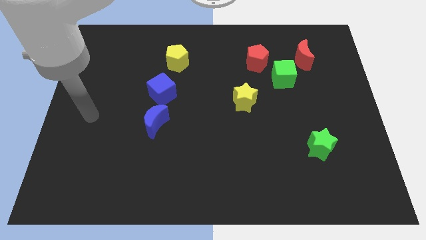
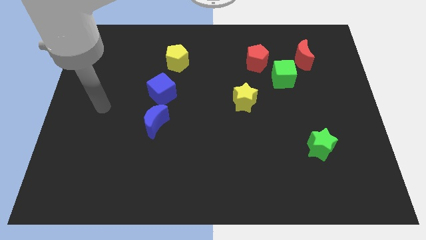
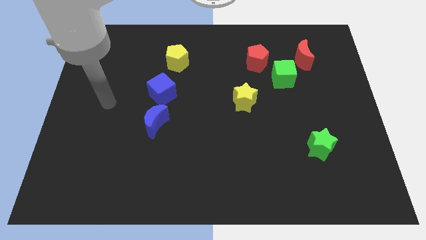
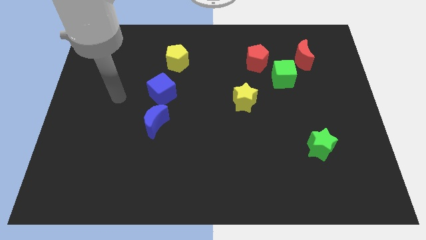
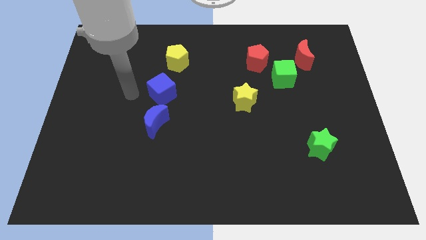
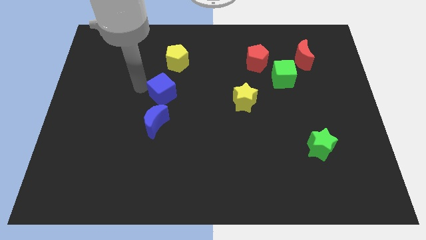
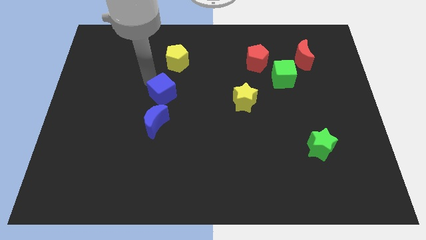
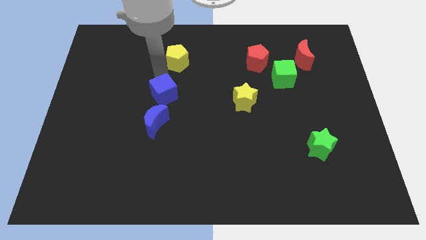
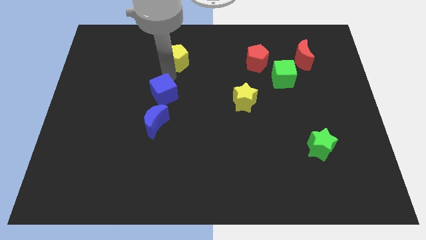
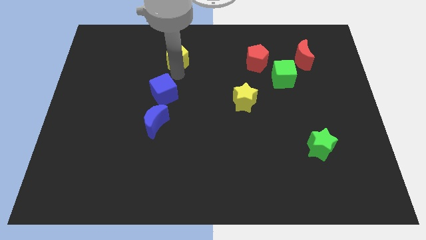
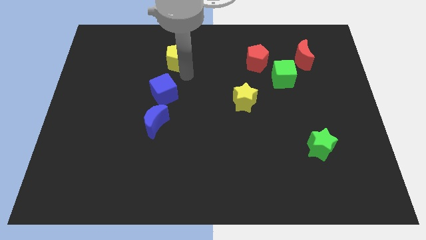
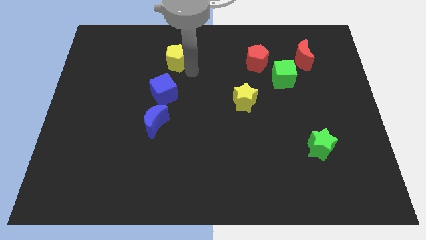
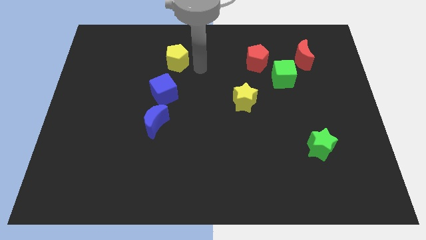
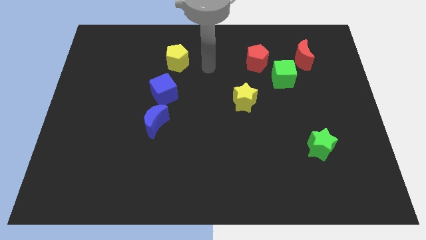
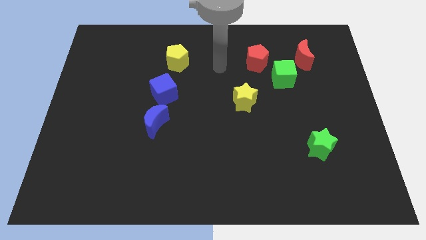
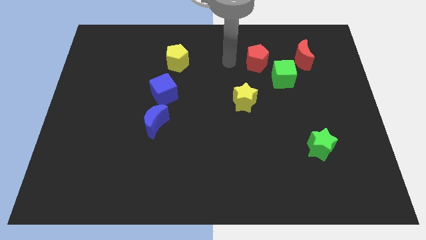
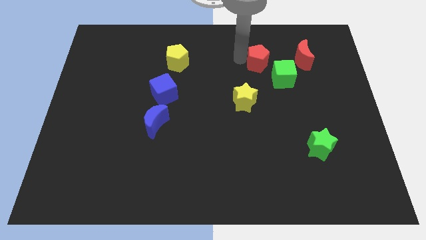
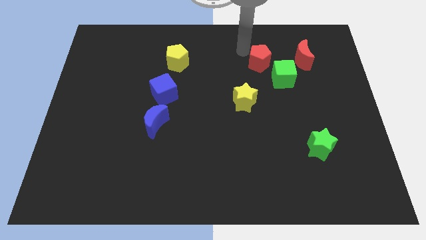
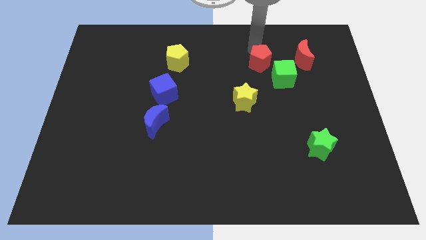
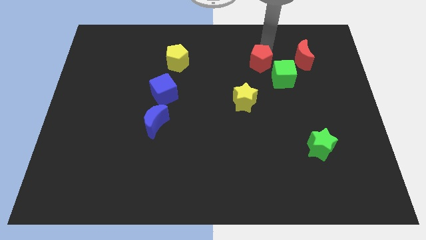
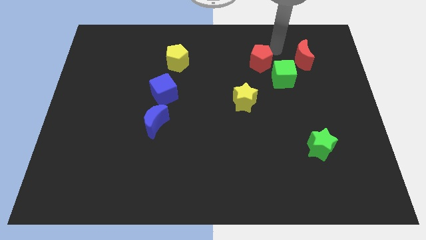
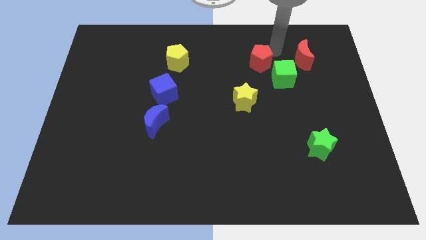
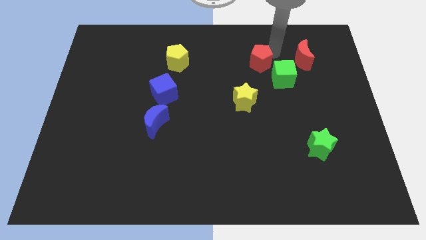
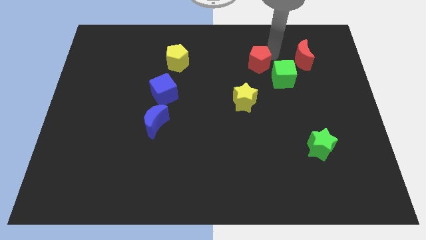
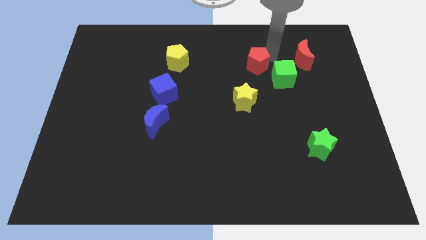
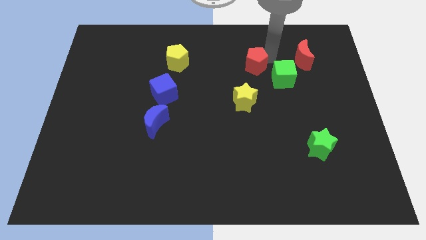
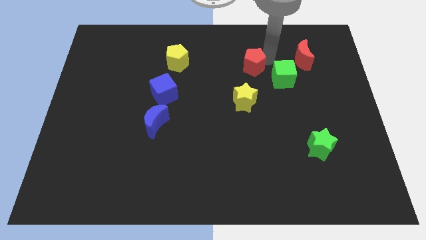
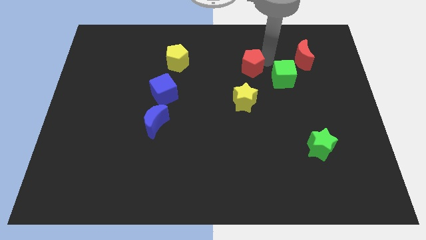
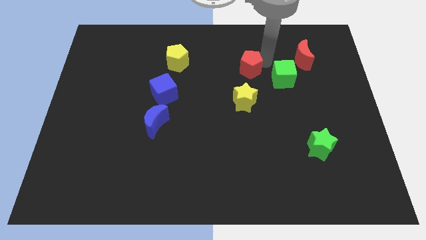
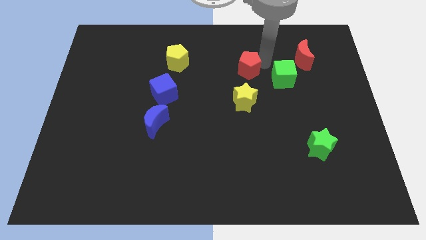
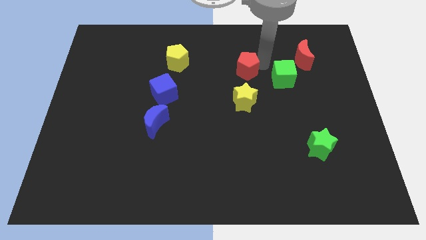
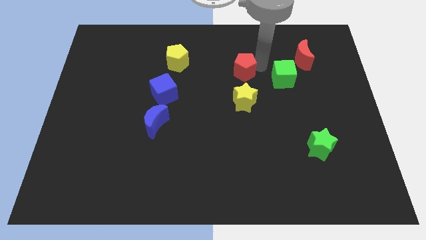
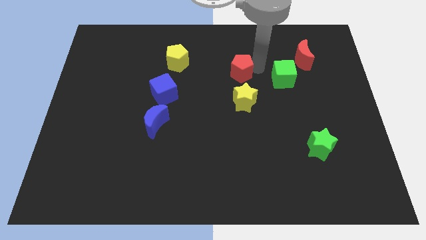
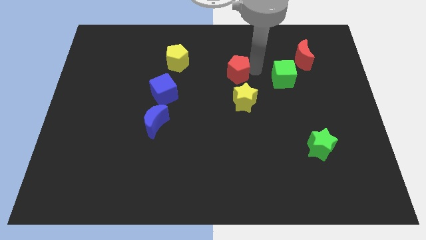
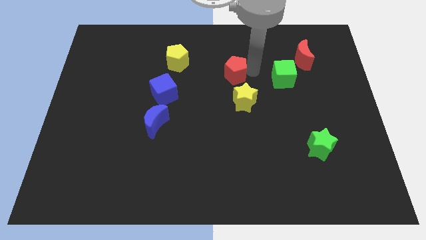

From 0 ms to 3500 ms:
push the red pentagon downwards and then to the left a little bit

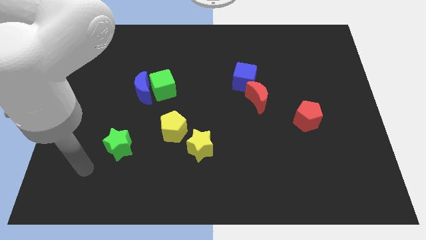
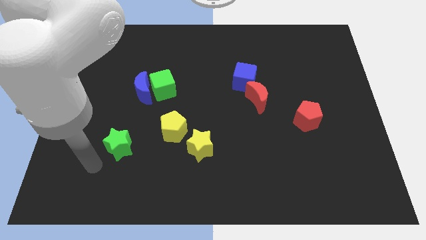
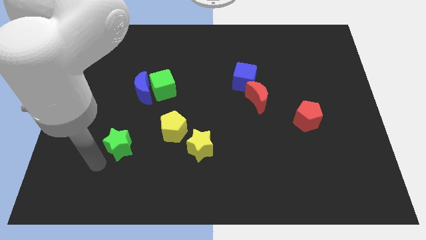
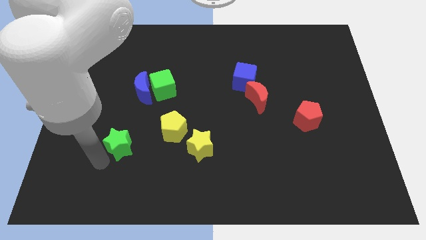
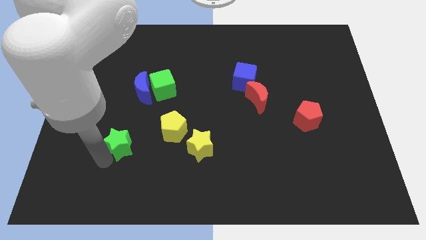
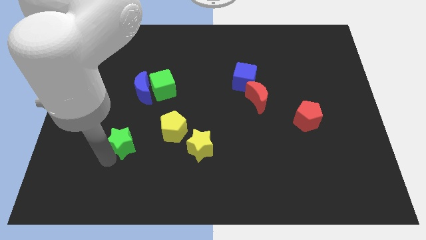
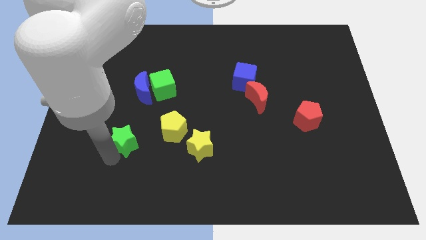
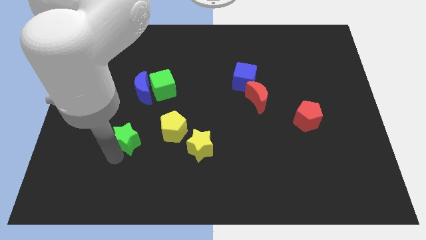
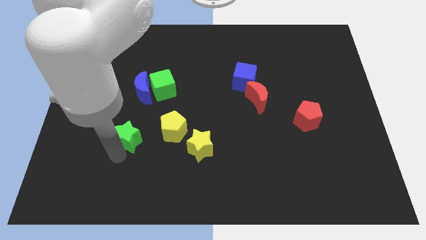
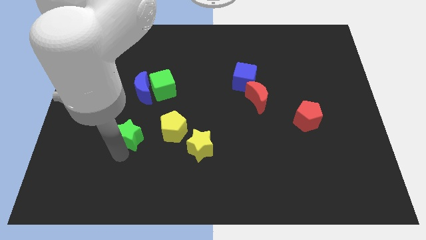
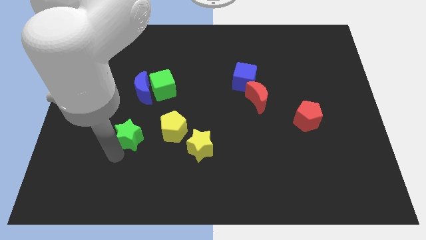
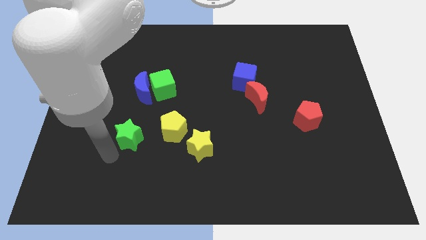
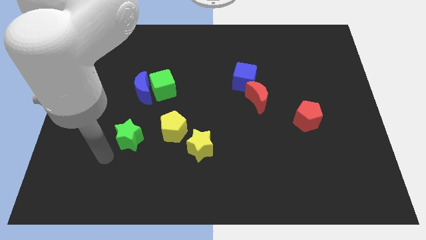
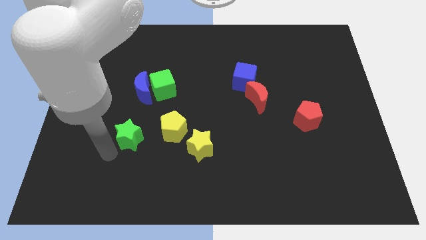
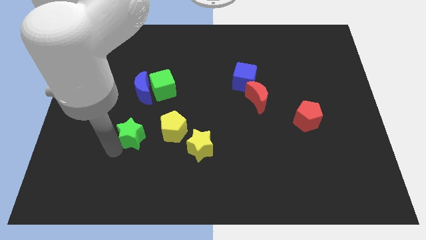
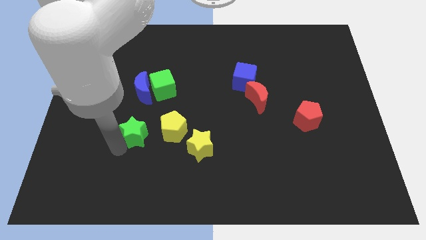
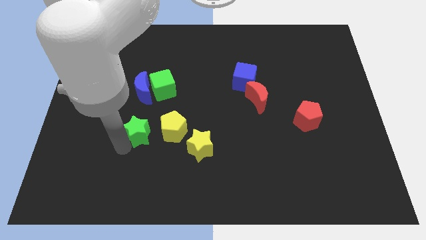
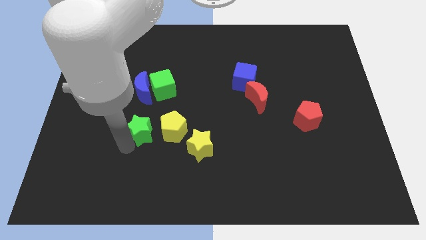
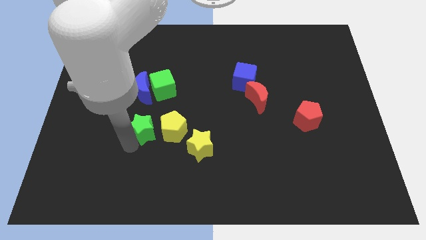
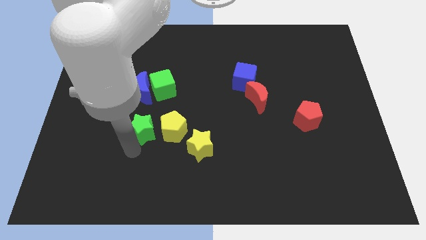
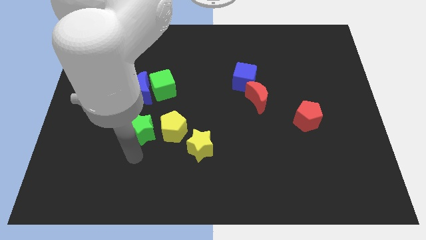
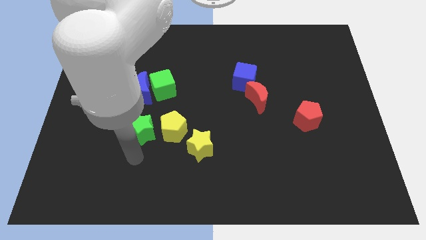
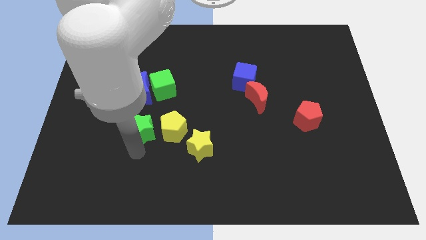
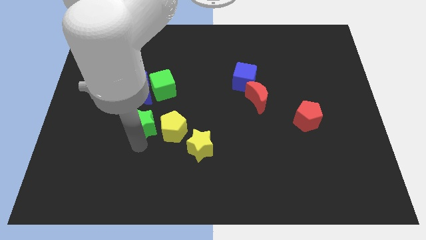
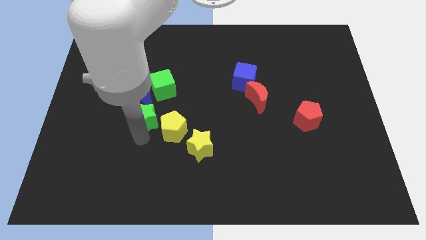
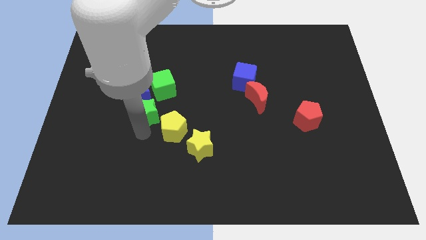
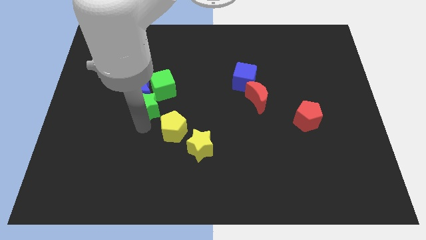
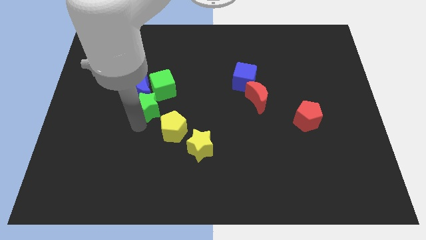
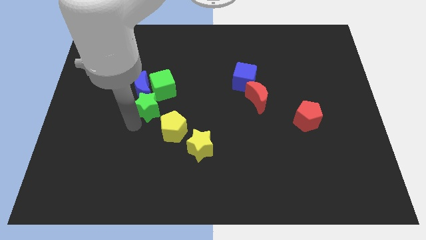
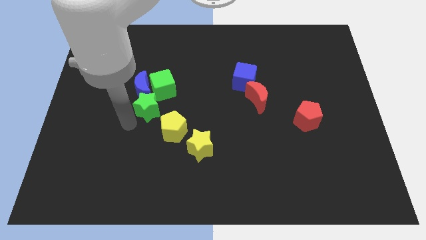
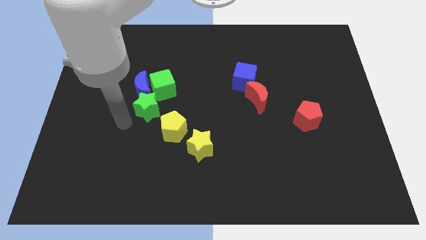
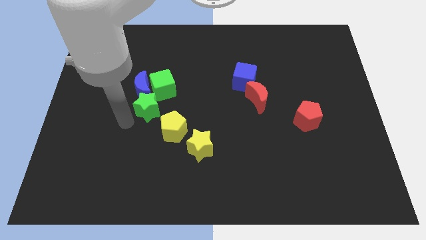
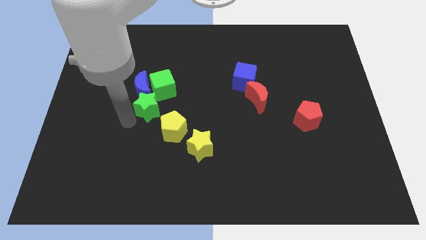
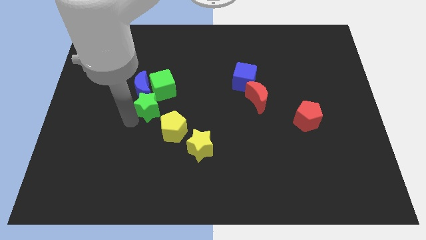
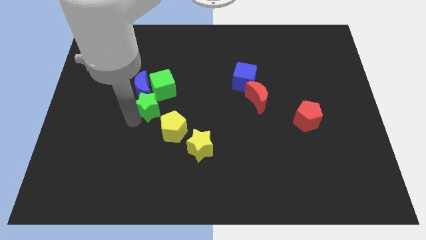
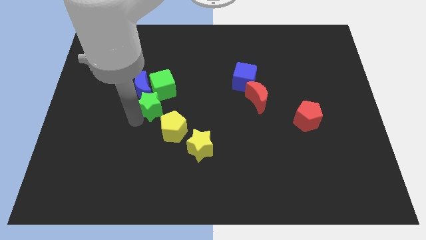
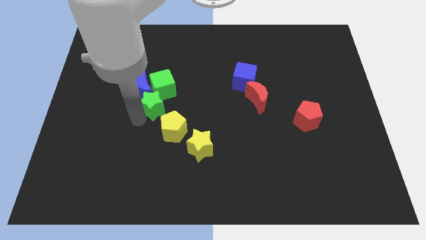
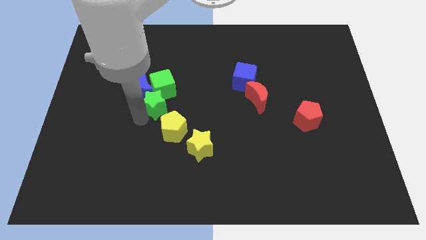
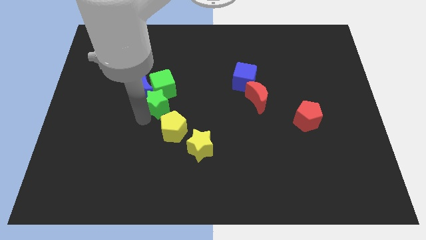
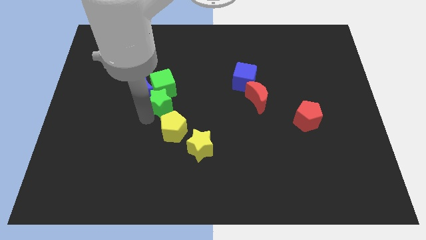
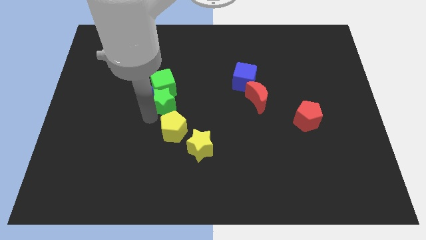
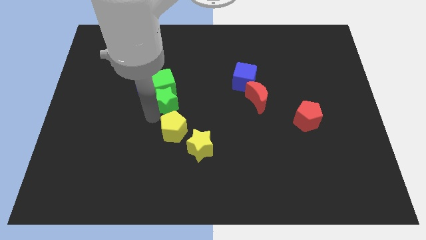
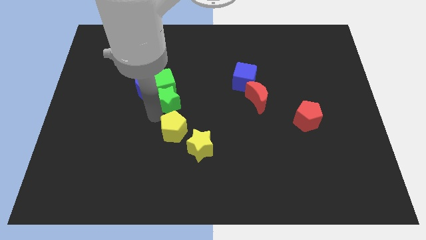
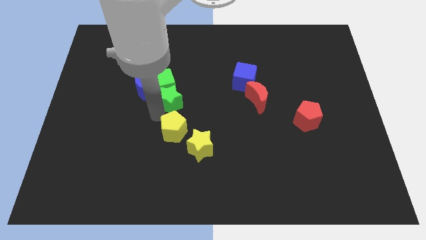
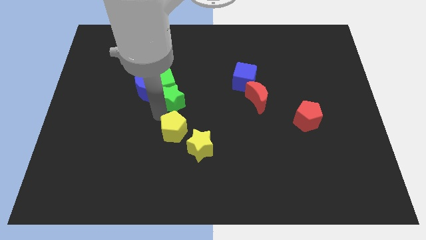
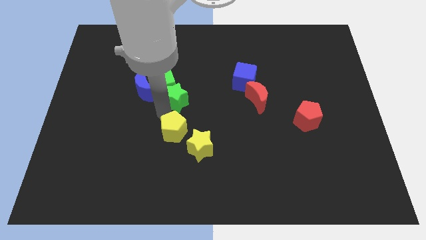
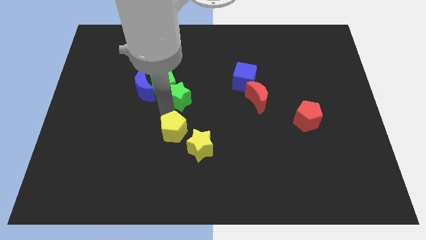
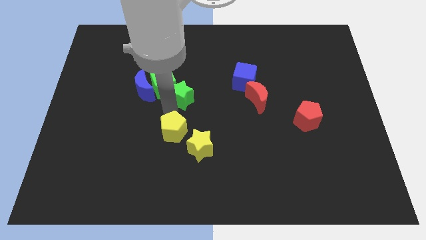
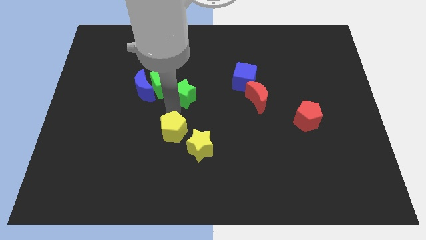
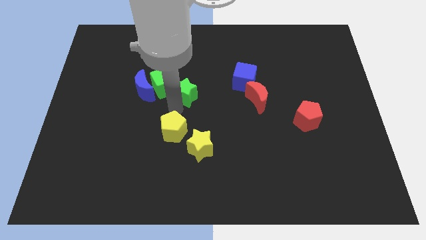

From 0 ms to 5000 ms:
move the green star upwards and to the right
